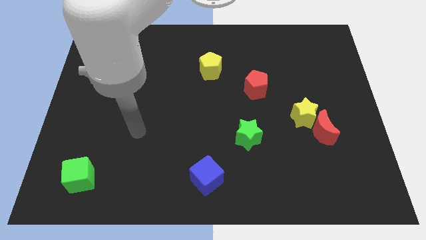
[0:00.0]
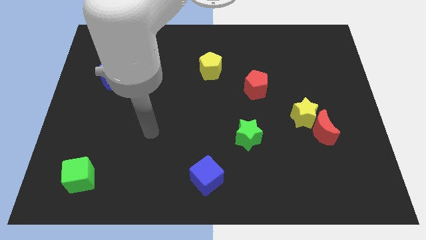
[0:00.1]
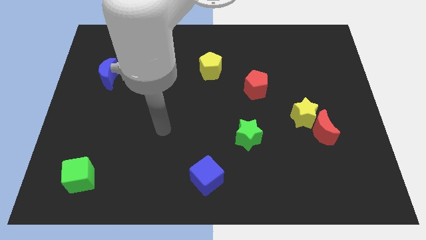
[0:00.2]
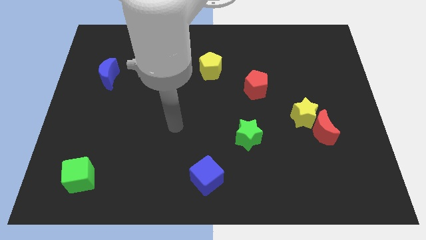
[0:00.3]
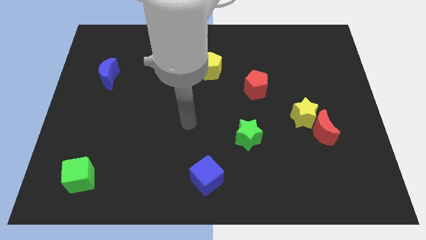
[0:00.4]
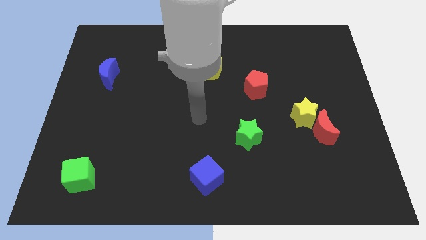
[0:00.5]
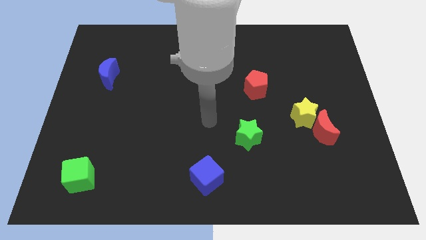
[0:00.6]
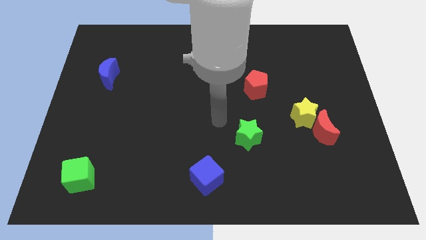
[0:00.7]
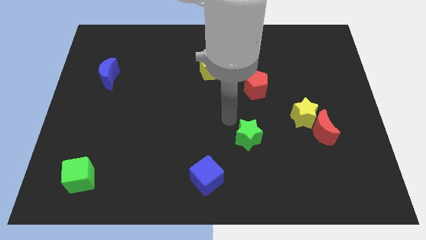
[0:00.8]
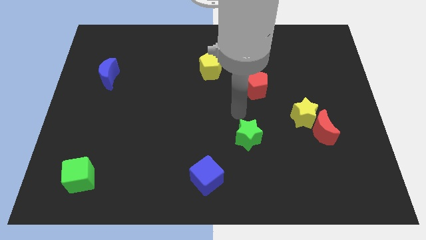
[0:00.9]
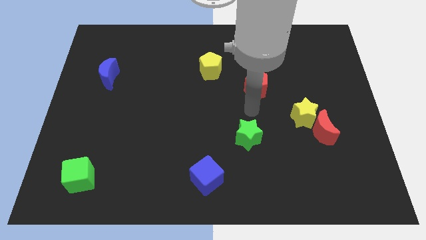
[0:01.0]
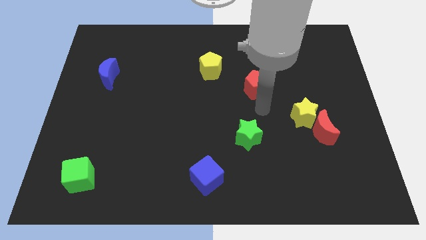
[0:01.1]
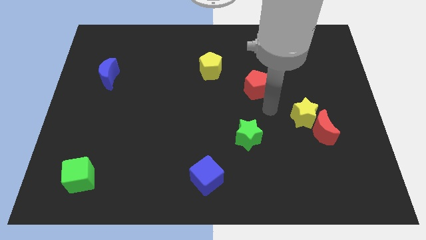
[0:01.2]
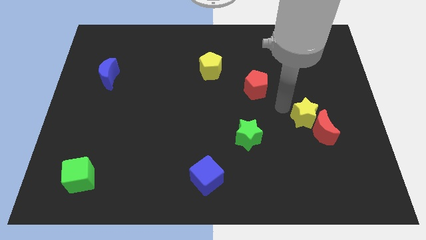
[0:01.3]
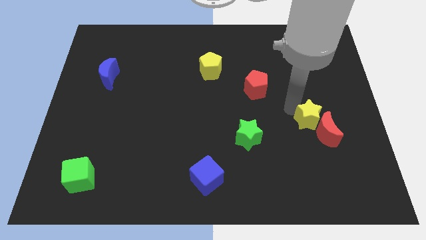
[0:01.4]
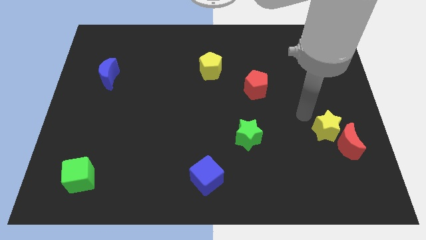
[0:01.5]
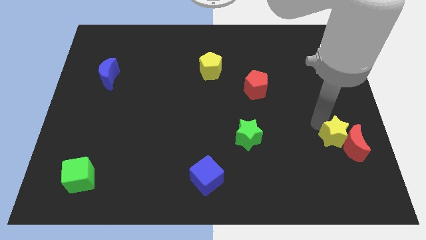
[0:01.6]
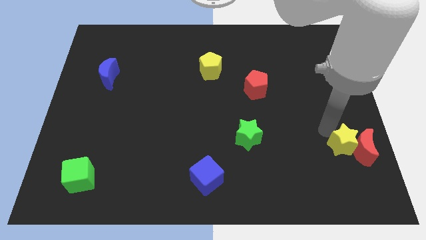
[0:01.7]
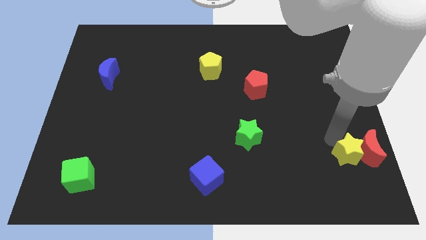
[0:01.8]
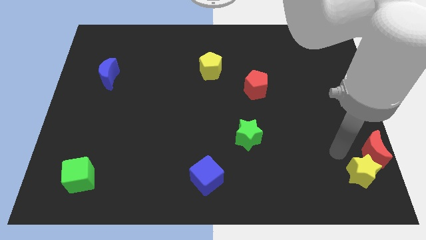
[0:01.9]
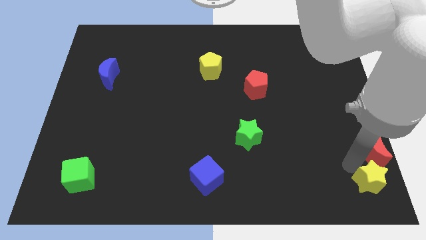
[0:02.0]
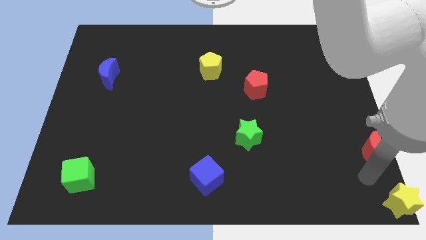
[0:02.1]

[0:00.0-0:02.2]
pull the red moon apart from the yellow star

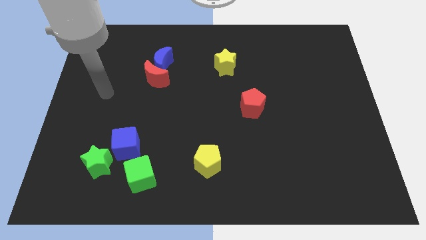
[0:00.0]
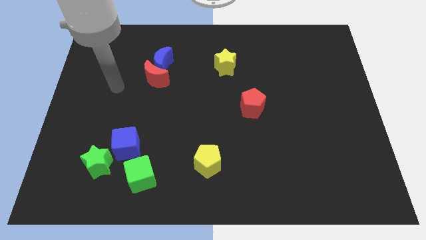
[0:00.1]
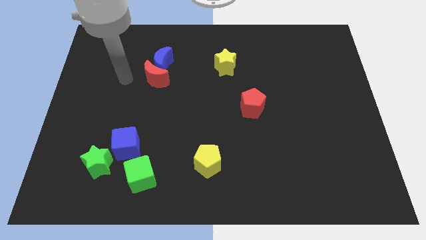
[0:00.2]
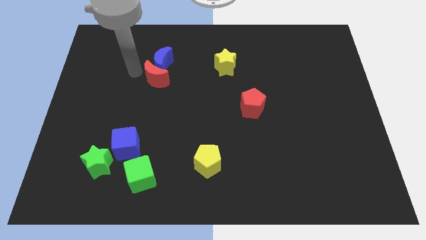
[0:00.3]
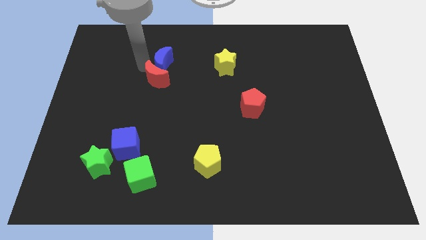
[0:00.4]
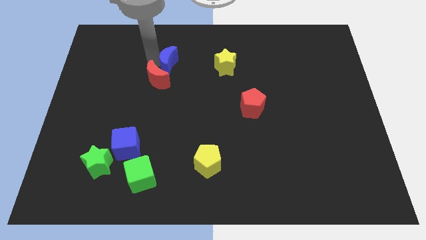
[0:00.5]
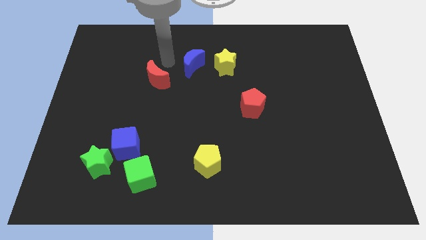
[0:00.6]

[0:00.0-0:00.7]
separate the red moon from the blue moon

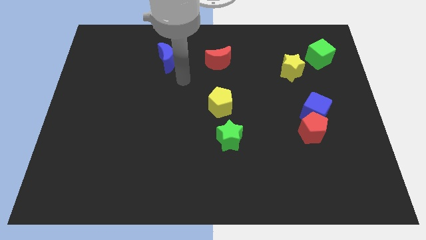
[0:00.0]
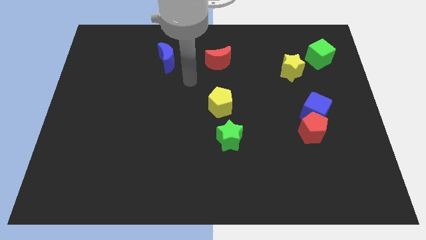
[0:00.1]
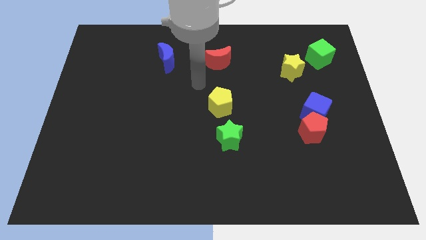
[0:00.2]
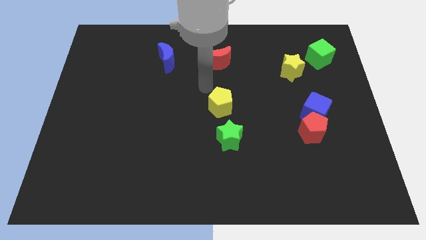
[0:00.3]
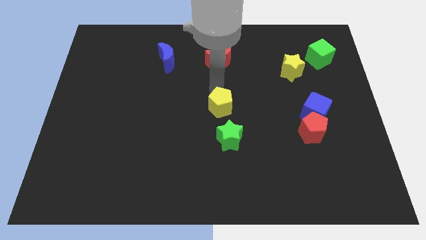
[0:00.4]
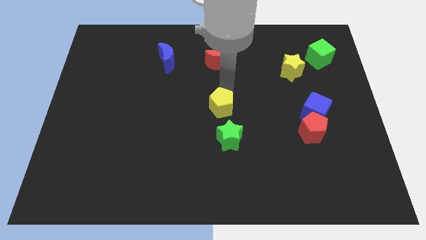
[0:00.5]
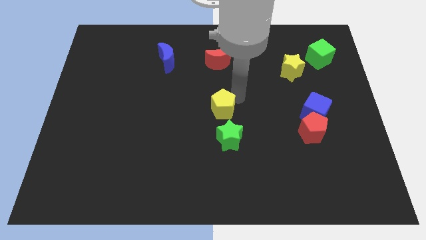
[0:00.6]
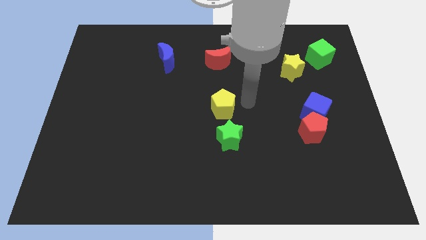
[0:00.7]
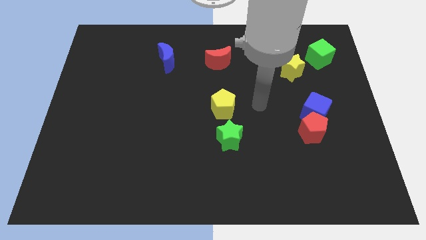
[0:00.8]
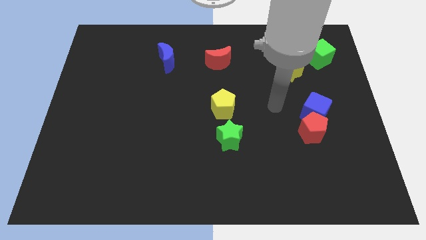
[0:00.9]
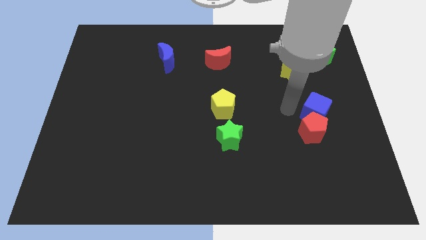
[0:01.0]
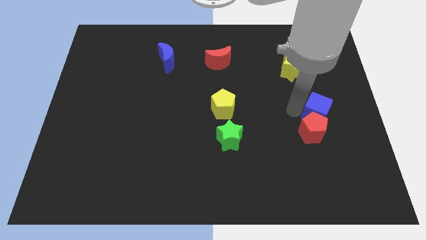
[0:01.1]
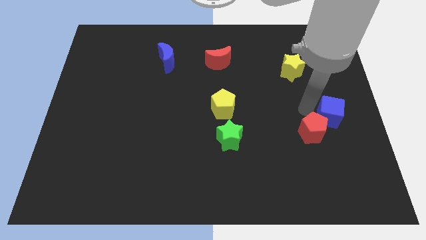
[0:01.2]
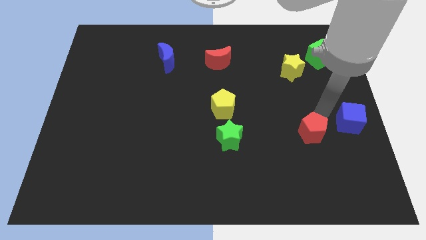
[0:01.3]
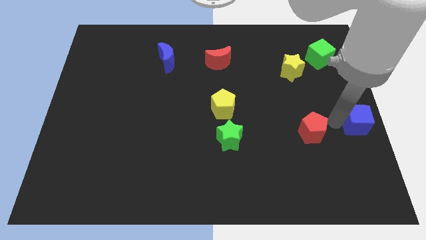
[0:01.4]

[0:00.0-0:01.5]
pull the red pentagon apart from the blue cube

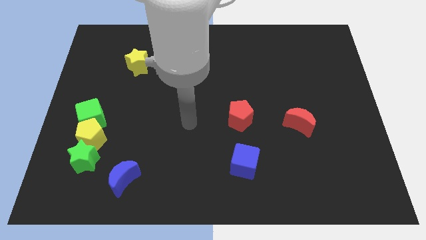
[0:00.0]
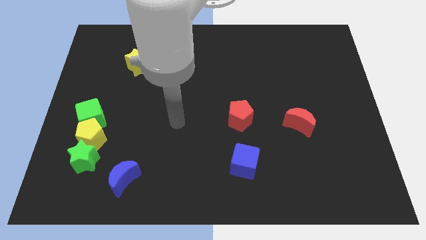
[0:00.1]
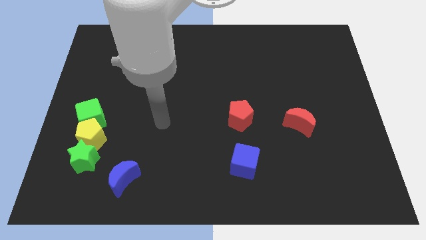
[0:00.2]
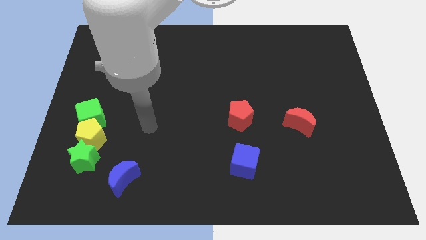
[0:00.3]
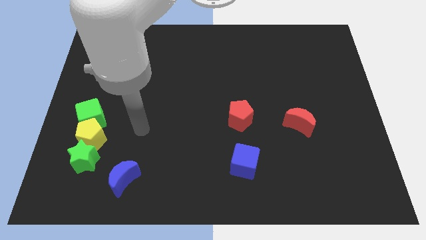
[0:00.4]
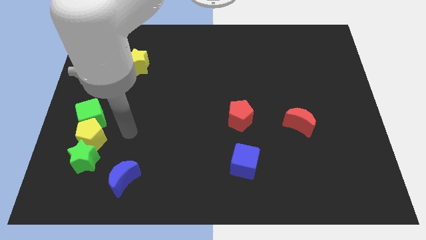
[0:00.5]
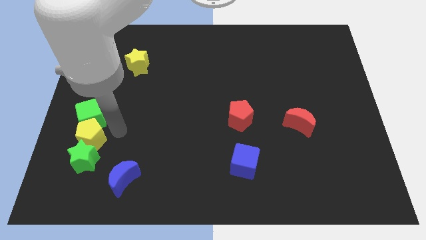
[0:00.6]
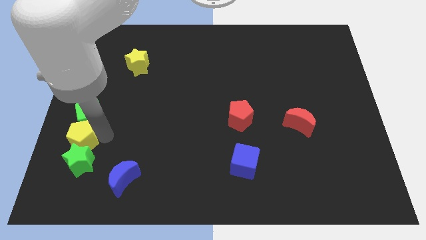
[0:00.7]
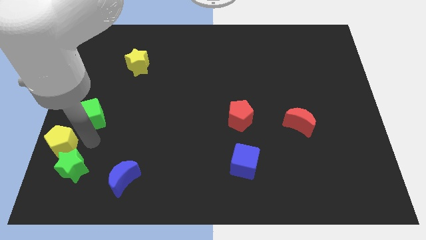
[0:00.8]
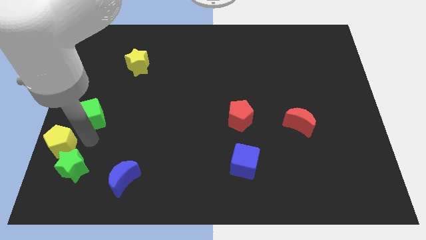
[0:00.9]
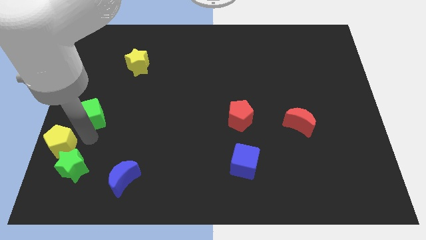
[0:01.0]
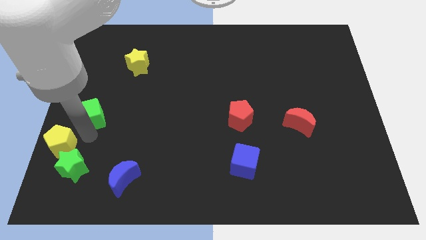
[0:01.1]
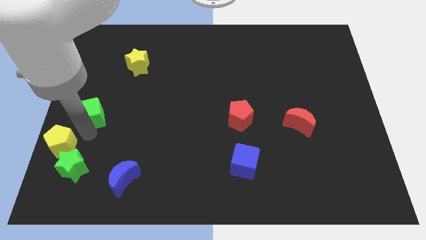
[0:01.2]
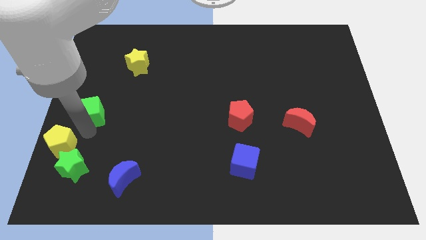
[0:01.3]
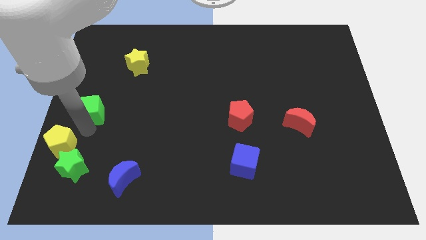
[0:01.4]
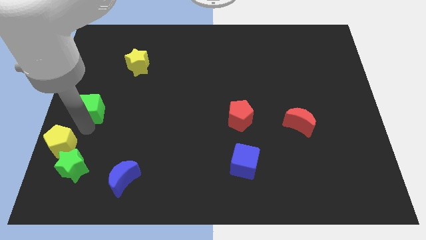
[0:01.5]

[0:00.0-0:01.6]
move the green cube away from the yellow pentagon

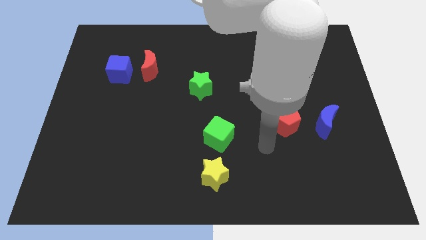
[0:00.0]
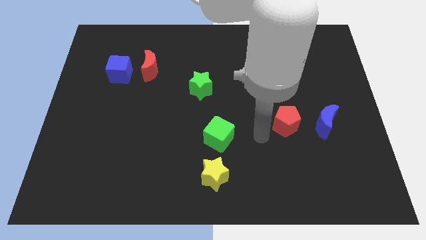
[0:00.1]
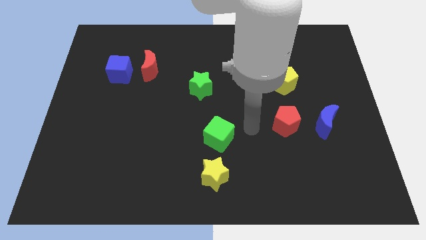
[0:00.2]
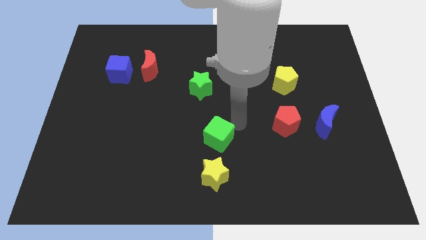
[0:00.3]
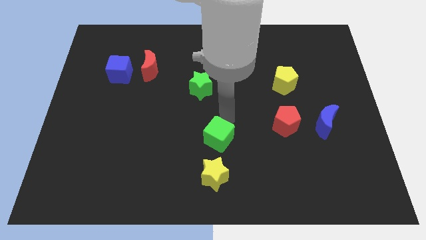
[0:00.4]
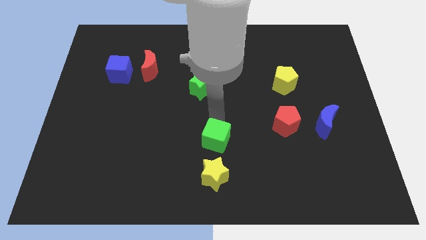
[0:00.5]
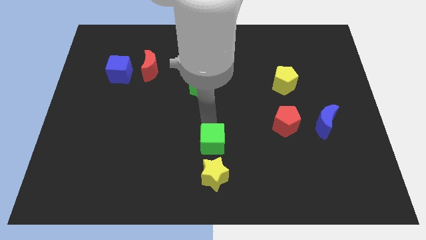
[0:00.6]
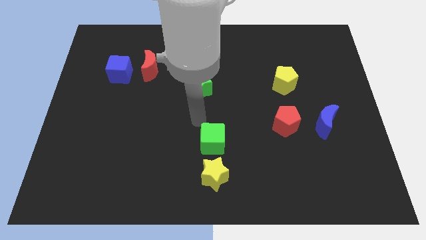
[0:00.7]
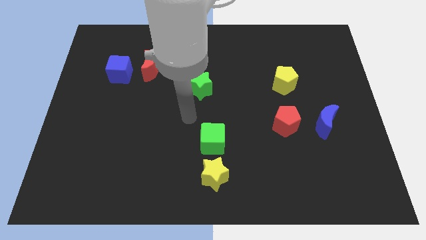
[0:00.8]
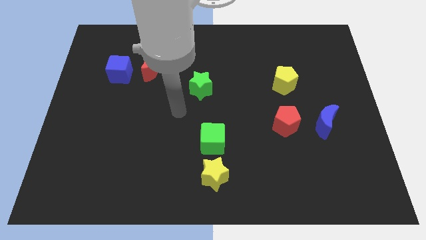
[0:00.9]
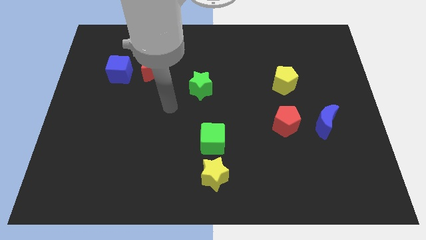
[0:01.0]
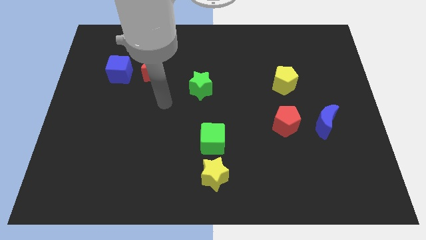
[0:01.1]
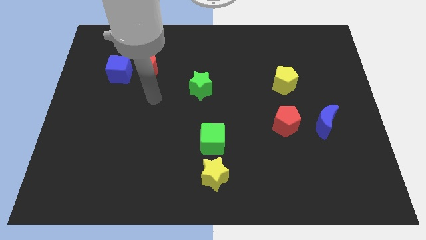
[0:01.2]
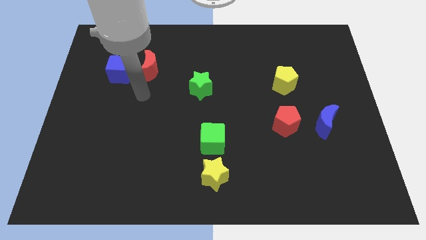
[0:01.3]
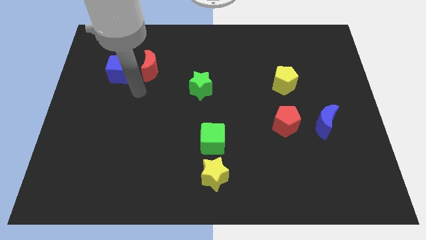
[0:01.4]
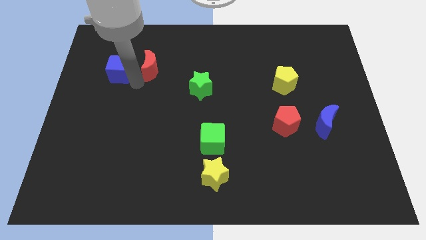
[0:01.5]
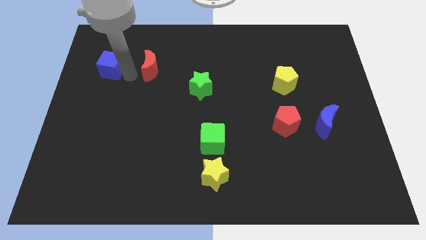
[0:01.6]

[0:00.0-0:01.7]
move the red moon away from the blue cube

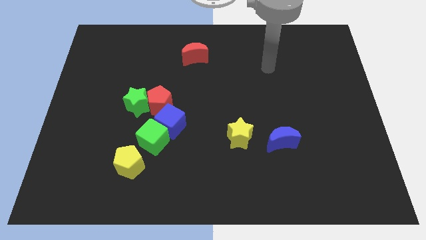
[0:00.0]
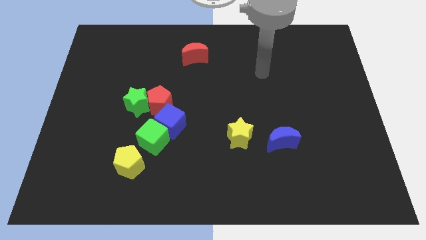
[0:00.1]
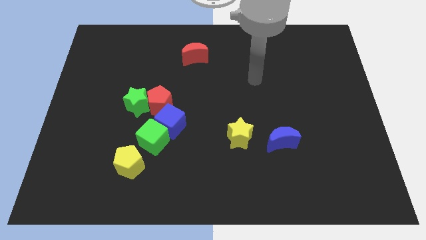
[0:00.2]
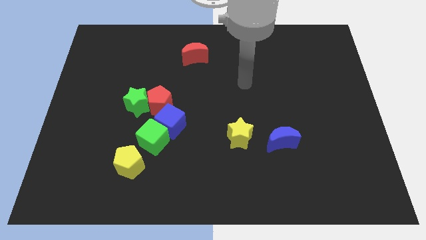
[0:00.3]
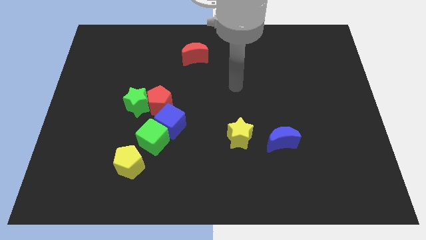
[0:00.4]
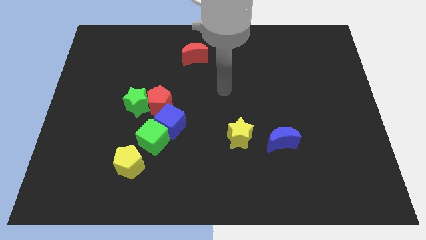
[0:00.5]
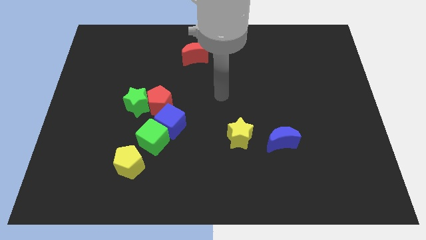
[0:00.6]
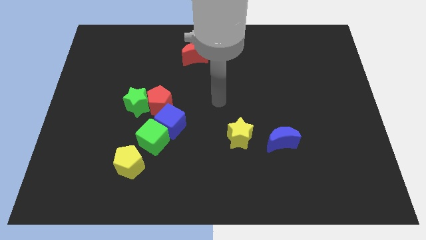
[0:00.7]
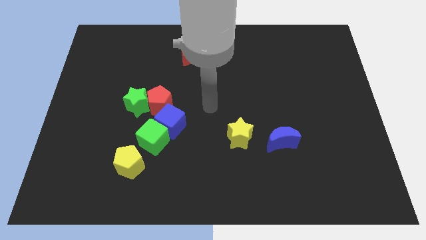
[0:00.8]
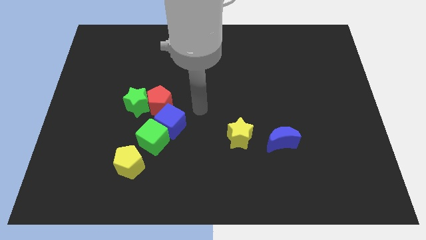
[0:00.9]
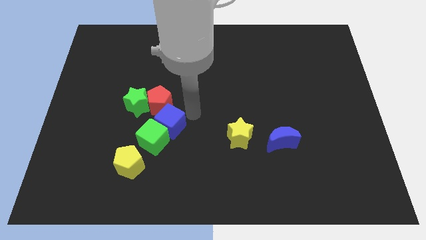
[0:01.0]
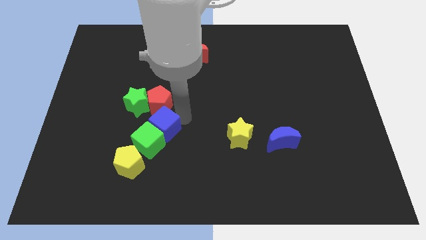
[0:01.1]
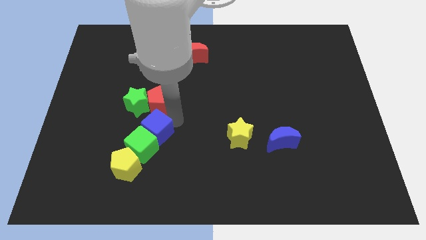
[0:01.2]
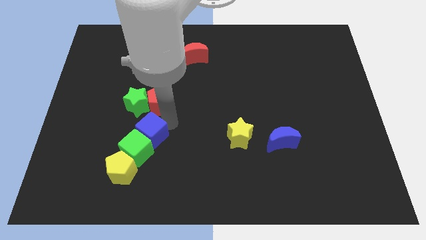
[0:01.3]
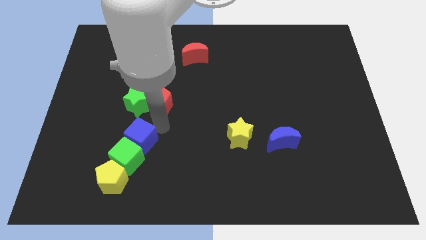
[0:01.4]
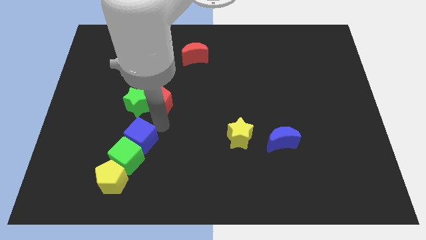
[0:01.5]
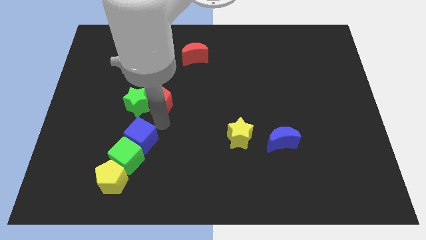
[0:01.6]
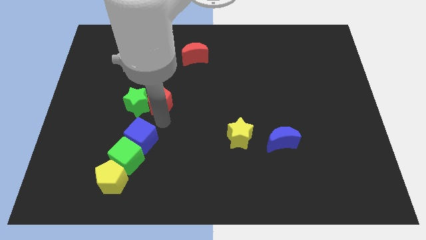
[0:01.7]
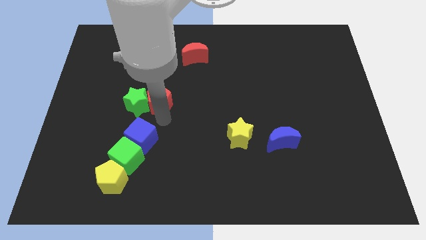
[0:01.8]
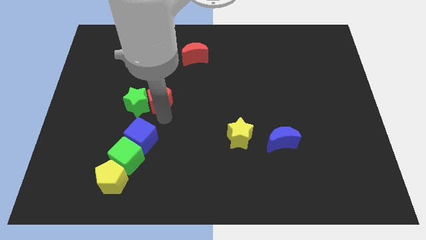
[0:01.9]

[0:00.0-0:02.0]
separate the red pentagon from the green star, blue cube, and green cube
